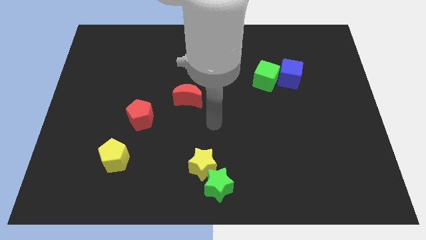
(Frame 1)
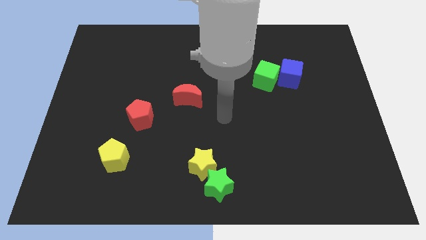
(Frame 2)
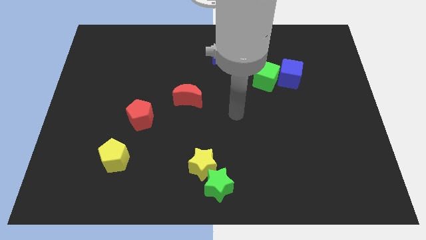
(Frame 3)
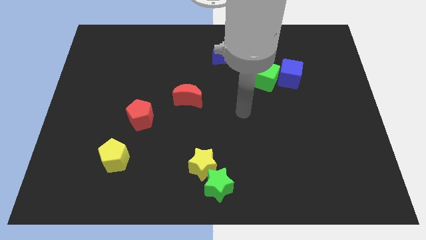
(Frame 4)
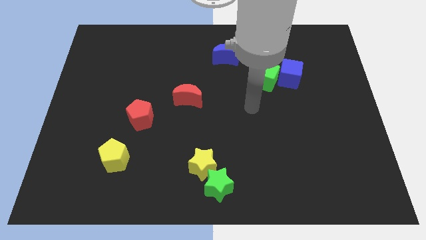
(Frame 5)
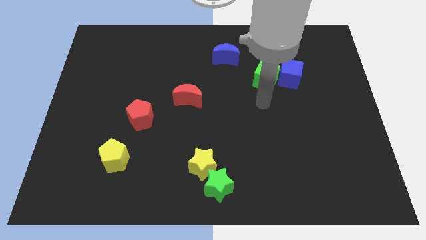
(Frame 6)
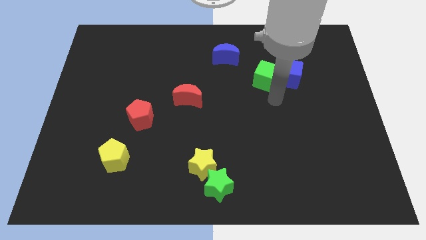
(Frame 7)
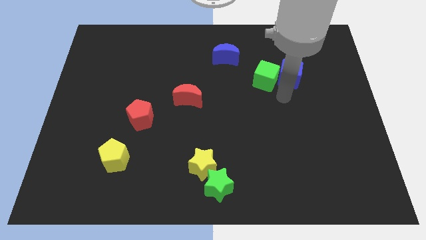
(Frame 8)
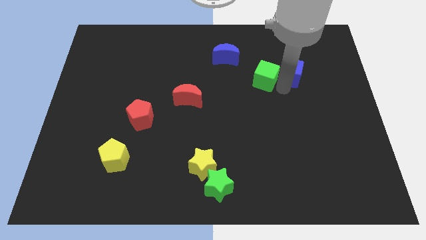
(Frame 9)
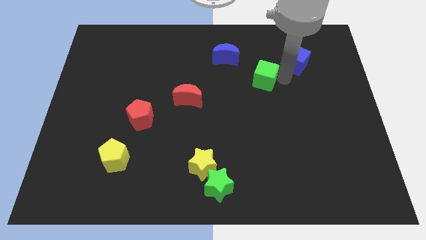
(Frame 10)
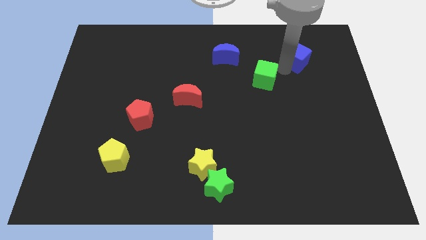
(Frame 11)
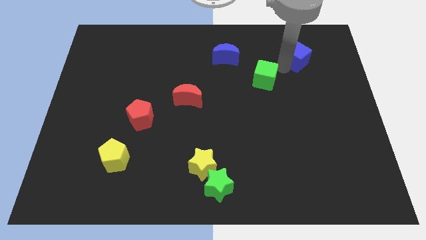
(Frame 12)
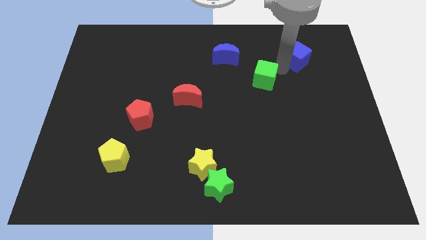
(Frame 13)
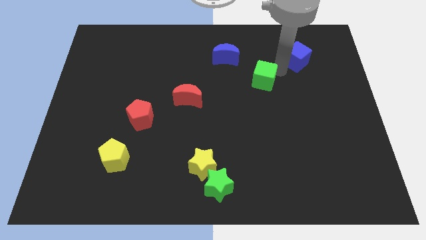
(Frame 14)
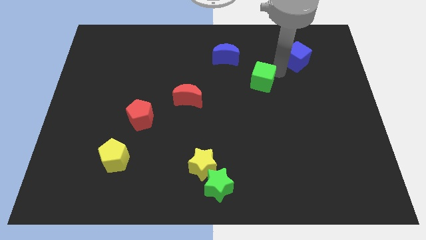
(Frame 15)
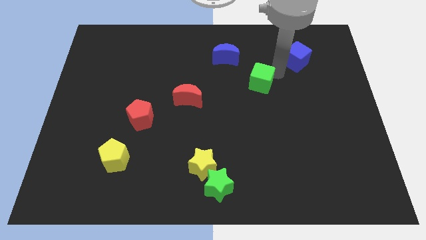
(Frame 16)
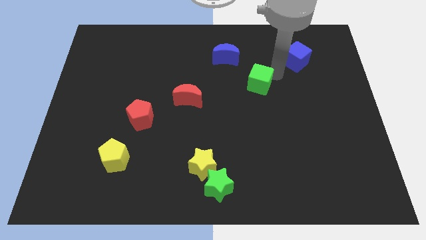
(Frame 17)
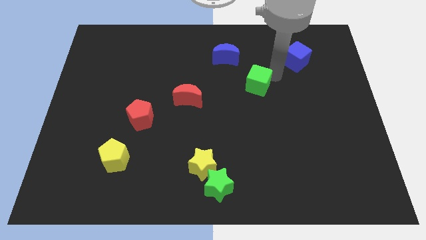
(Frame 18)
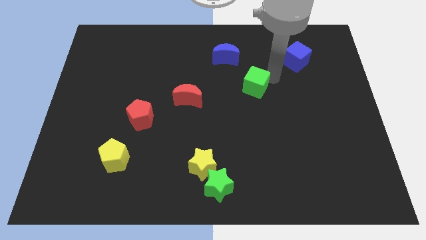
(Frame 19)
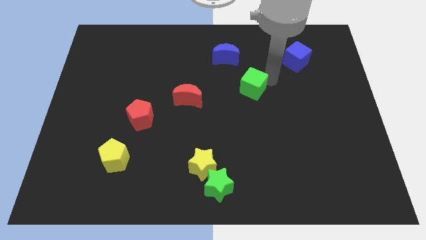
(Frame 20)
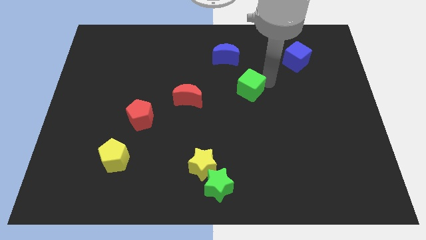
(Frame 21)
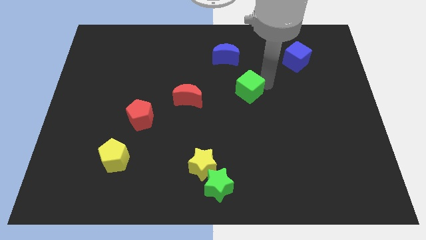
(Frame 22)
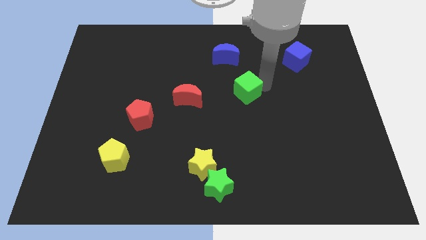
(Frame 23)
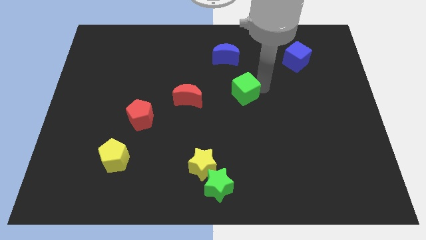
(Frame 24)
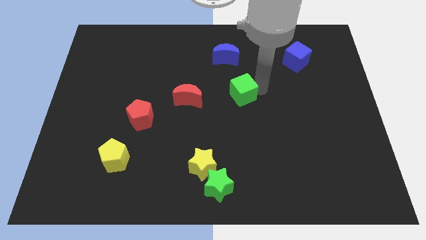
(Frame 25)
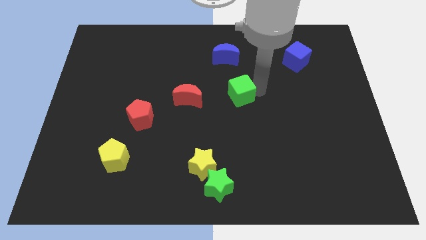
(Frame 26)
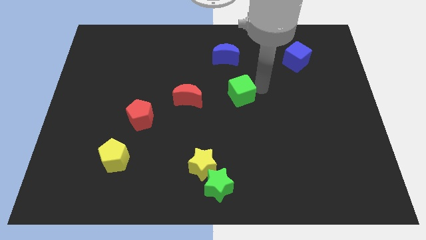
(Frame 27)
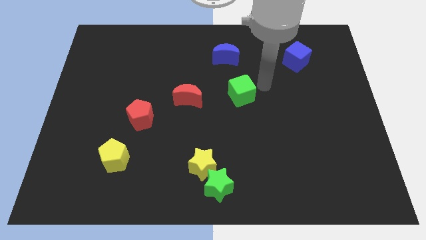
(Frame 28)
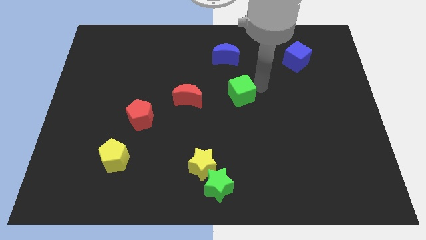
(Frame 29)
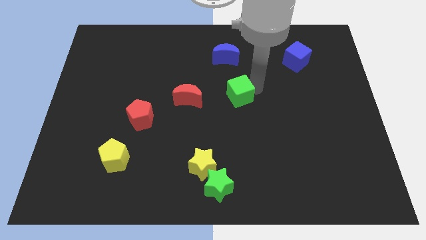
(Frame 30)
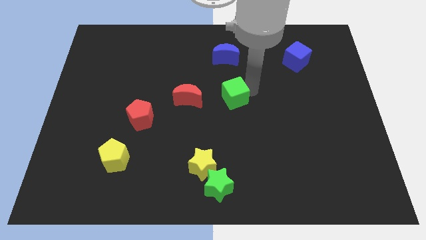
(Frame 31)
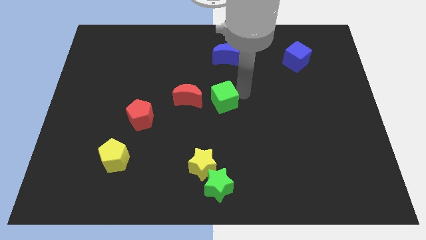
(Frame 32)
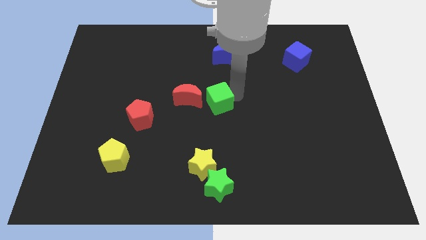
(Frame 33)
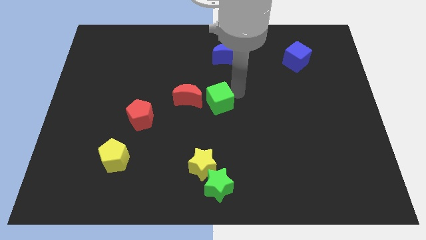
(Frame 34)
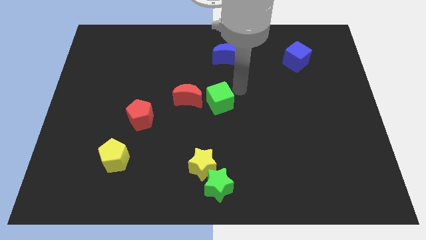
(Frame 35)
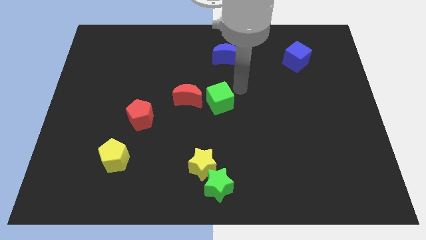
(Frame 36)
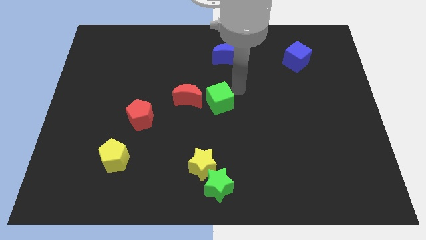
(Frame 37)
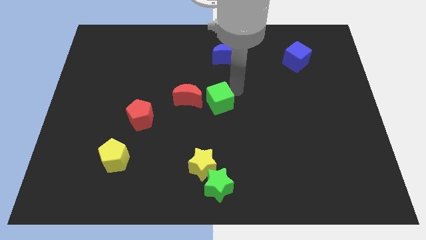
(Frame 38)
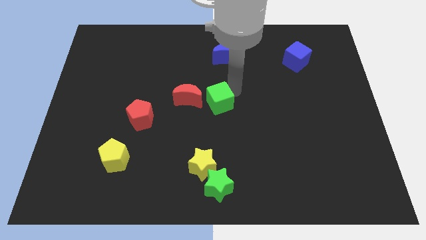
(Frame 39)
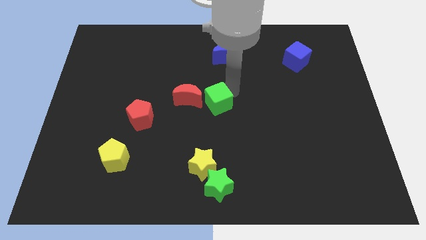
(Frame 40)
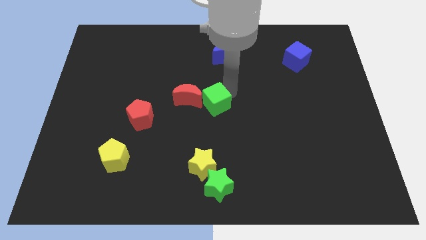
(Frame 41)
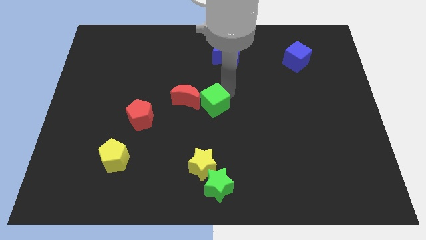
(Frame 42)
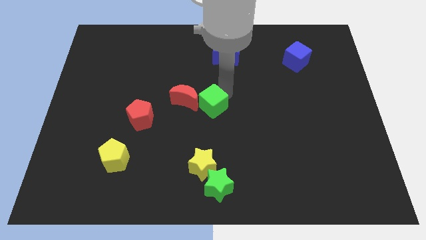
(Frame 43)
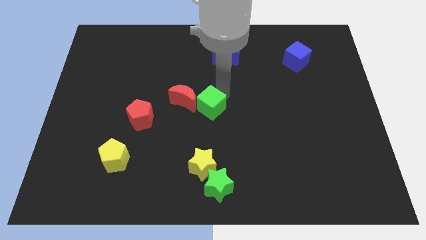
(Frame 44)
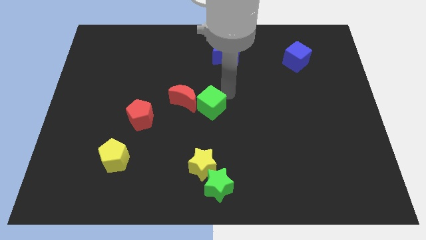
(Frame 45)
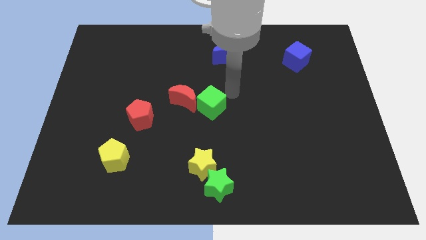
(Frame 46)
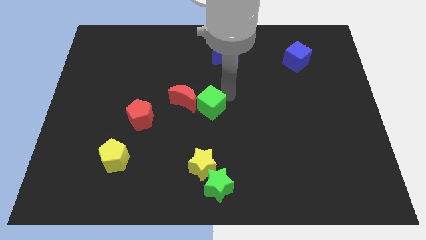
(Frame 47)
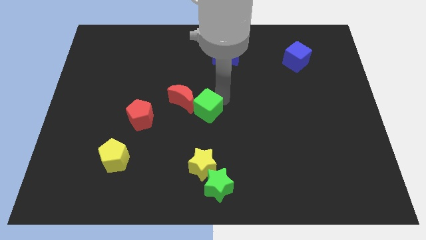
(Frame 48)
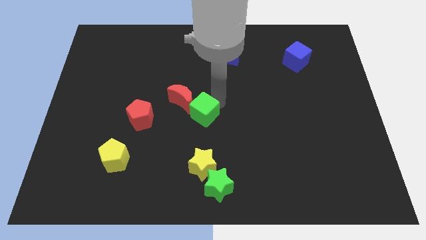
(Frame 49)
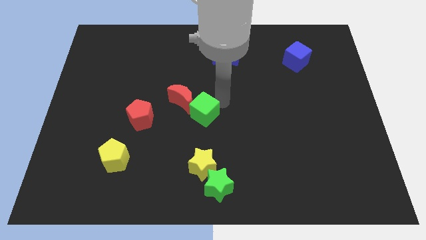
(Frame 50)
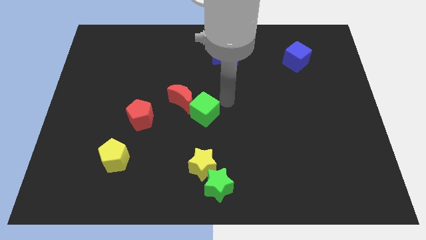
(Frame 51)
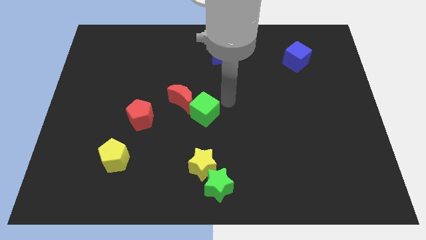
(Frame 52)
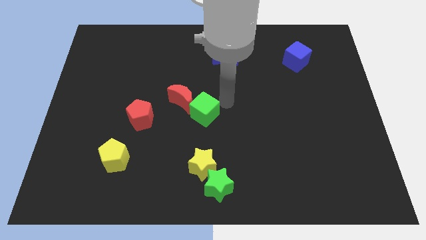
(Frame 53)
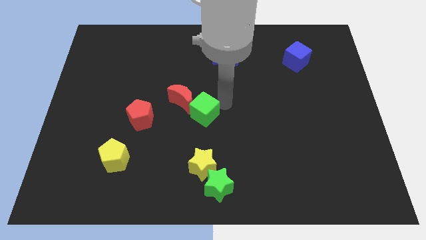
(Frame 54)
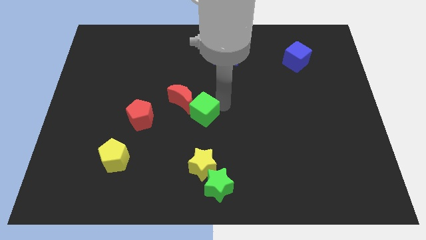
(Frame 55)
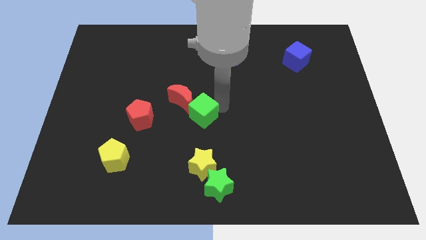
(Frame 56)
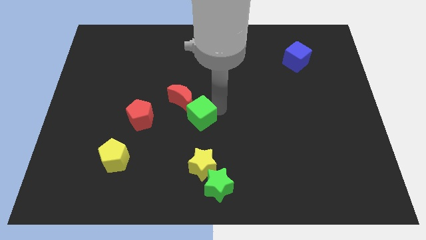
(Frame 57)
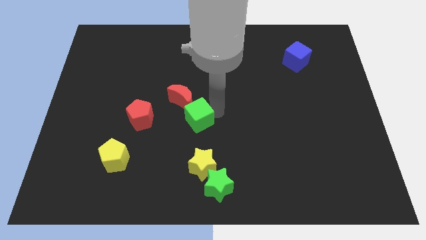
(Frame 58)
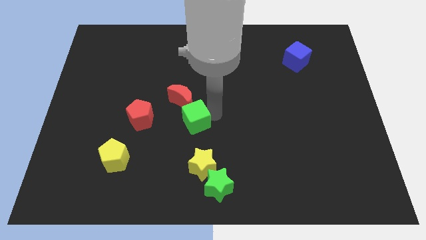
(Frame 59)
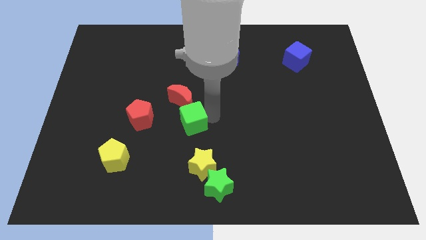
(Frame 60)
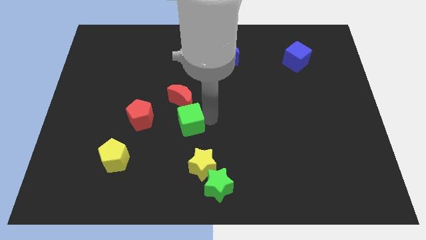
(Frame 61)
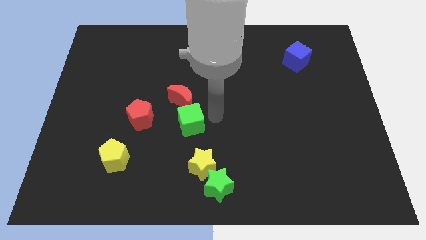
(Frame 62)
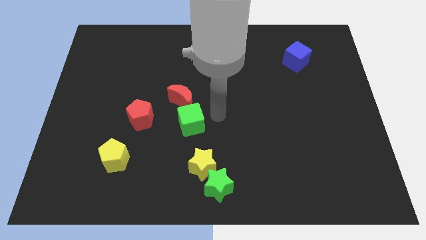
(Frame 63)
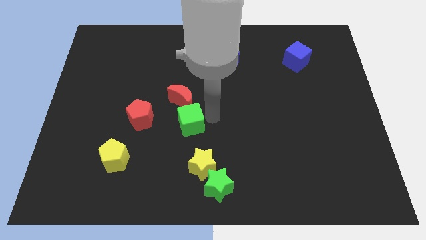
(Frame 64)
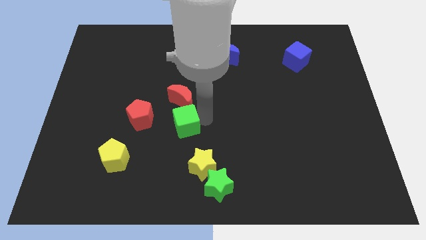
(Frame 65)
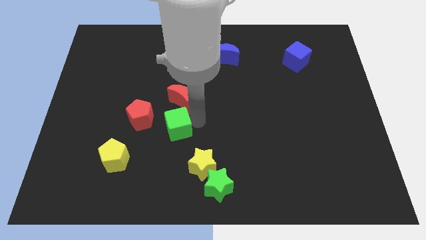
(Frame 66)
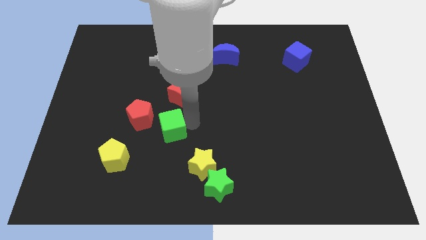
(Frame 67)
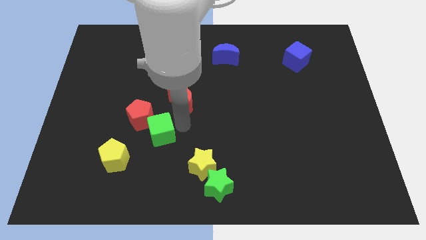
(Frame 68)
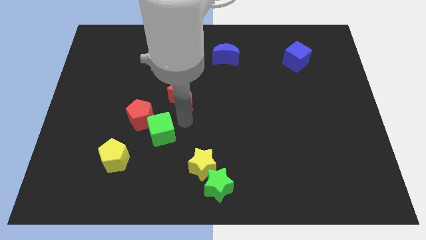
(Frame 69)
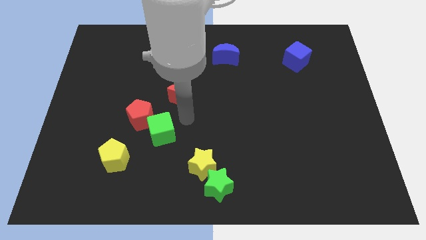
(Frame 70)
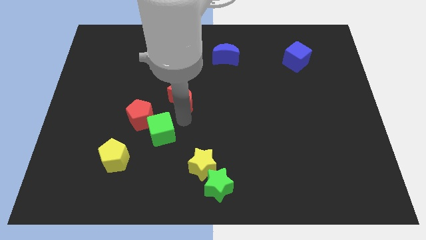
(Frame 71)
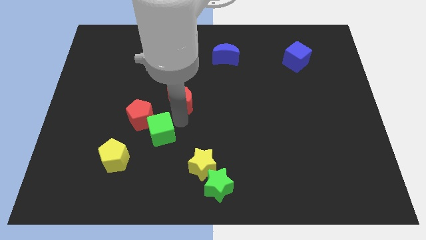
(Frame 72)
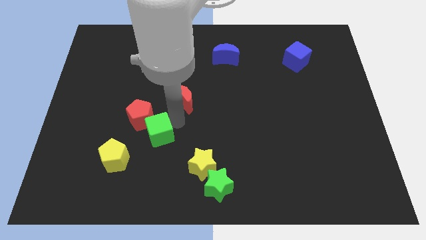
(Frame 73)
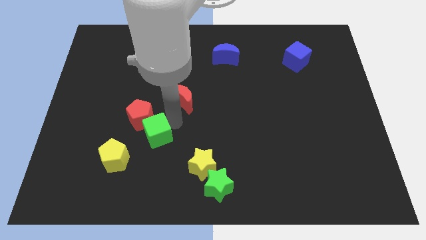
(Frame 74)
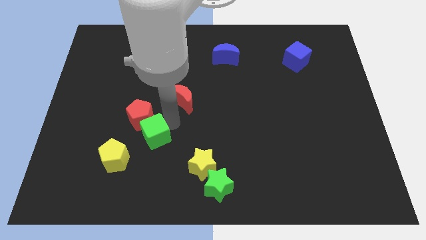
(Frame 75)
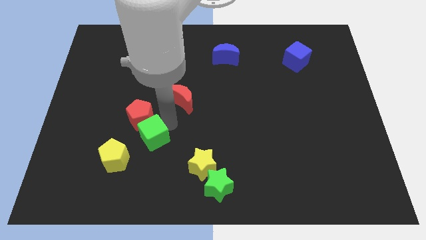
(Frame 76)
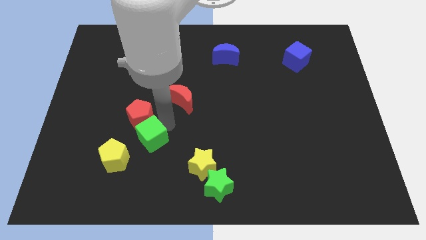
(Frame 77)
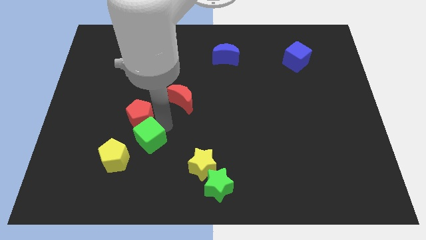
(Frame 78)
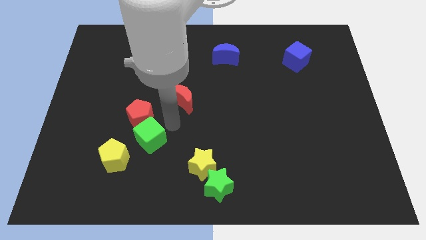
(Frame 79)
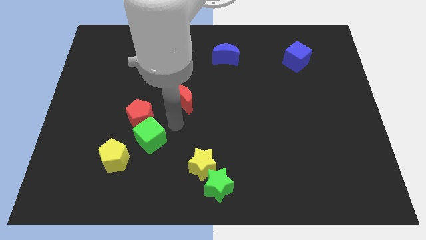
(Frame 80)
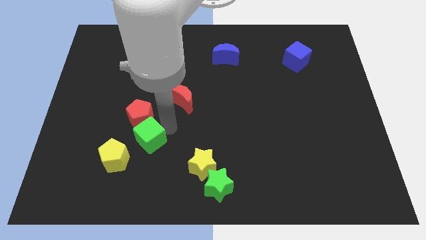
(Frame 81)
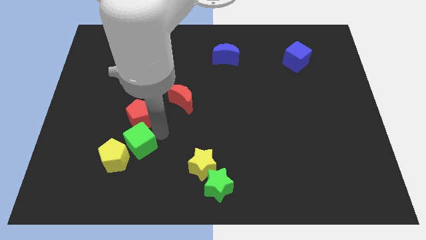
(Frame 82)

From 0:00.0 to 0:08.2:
put the green cube towards the yellow pentagon
